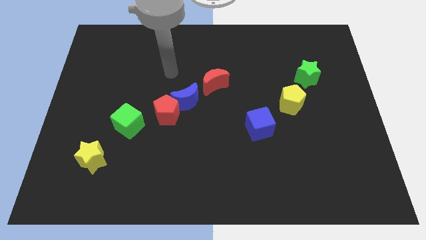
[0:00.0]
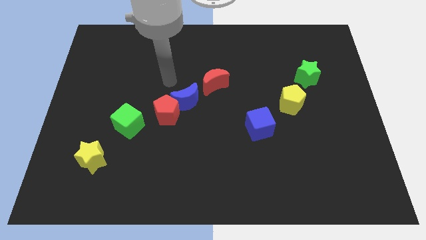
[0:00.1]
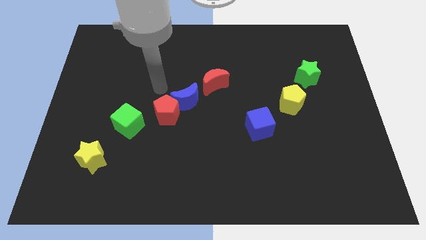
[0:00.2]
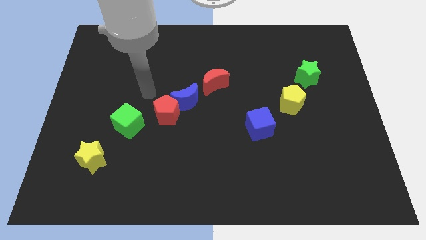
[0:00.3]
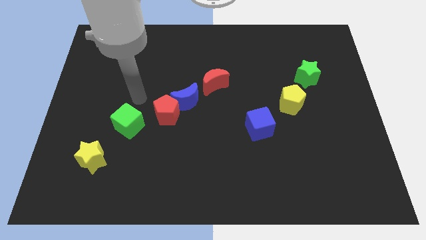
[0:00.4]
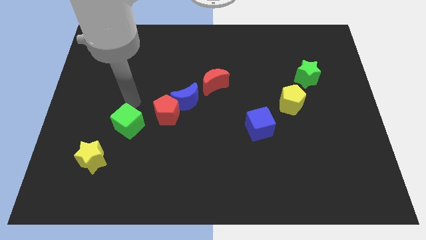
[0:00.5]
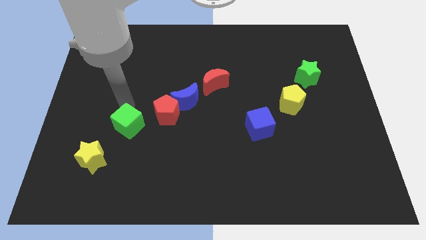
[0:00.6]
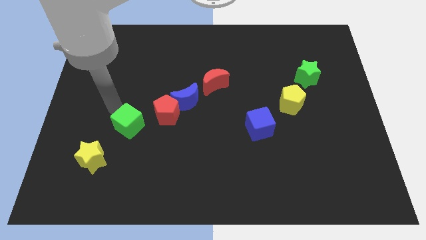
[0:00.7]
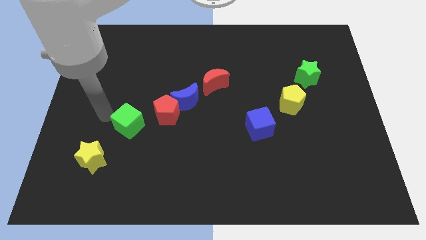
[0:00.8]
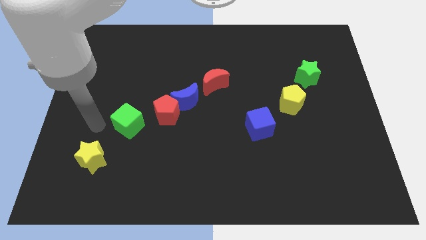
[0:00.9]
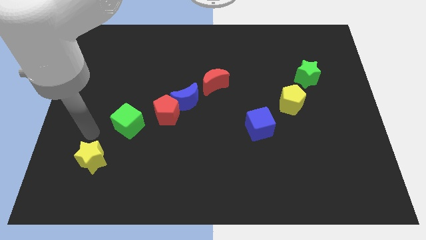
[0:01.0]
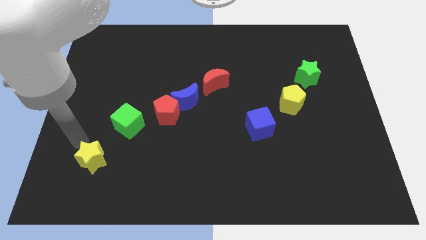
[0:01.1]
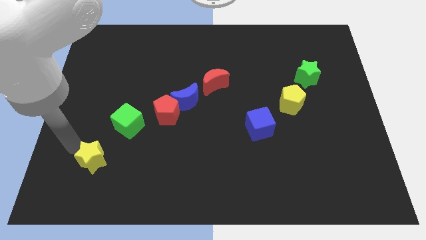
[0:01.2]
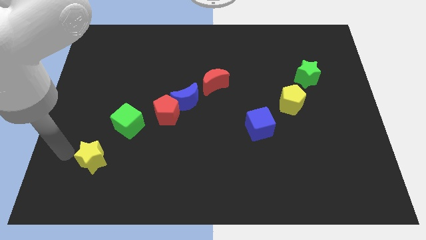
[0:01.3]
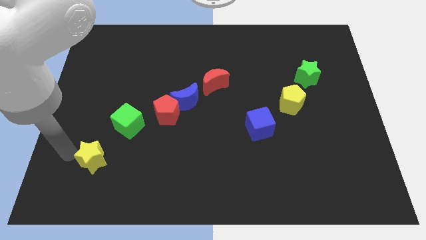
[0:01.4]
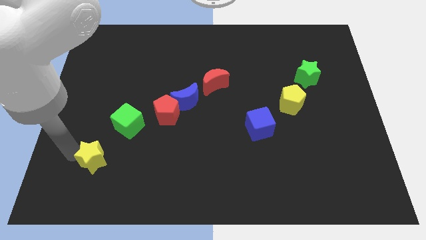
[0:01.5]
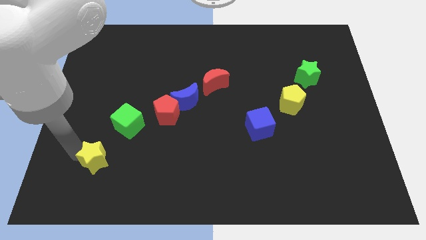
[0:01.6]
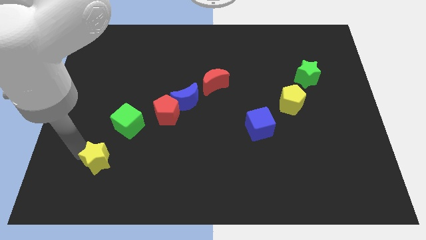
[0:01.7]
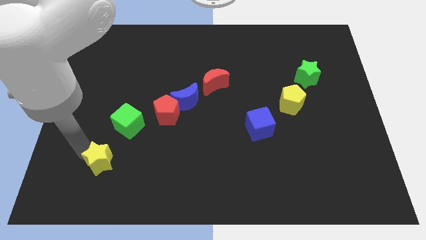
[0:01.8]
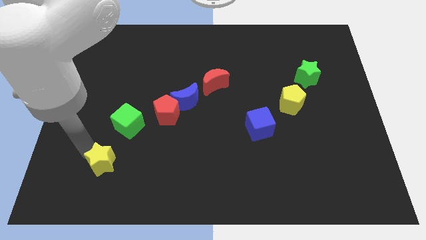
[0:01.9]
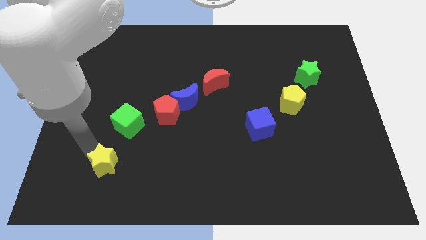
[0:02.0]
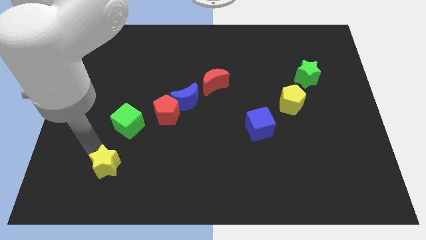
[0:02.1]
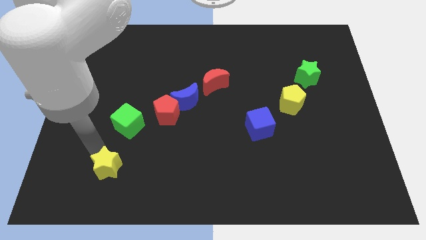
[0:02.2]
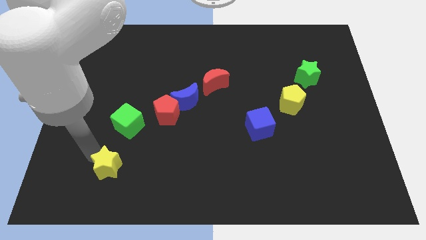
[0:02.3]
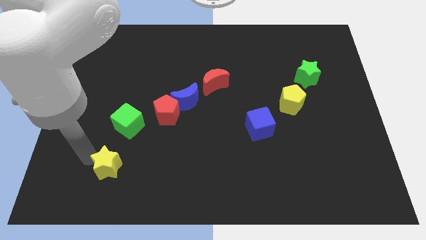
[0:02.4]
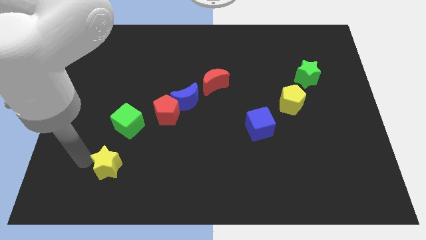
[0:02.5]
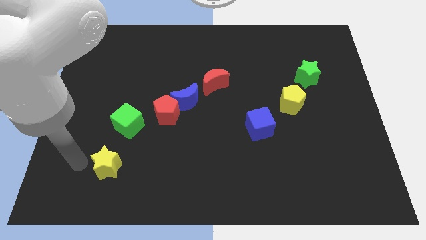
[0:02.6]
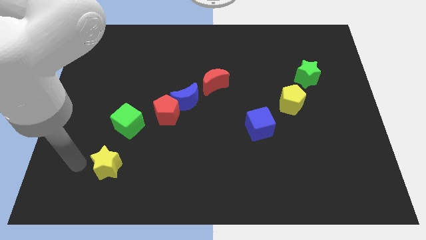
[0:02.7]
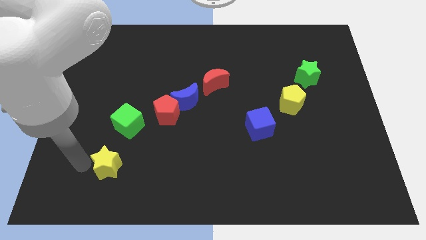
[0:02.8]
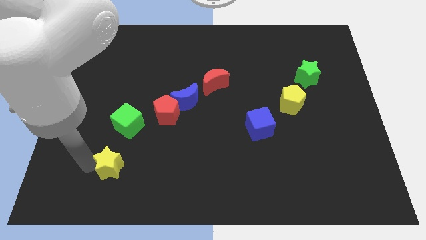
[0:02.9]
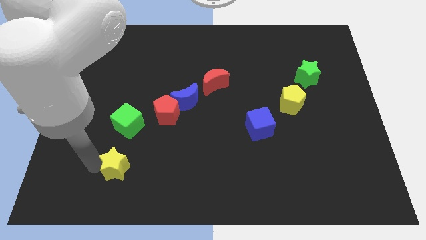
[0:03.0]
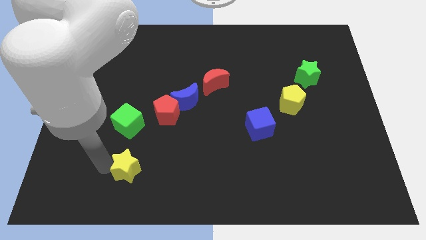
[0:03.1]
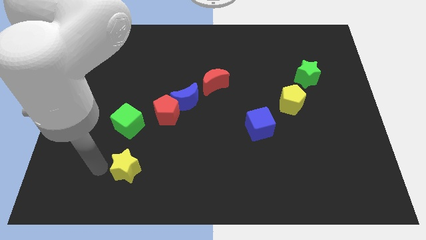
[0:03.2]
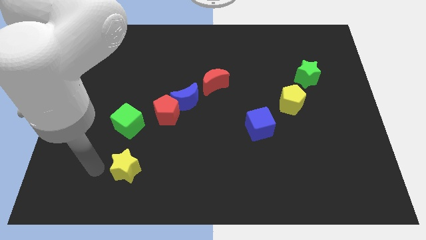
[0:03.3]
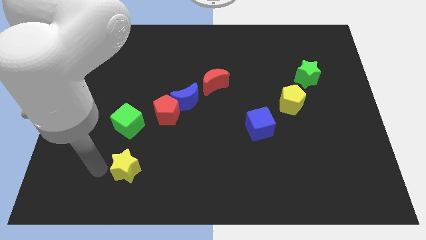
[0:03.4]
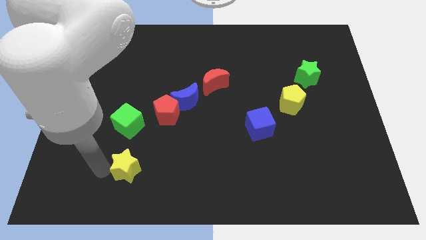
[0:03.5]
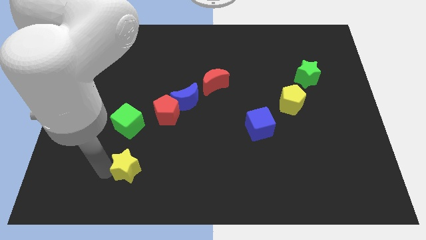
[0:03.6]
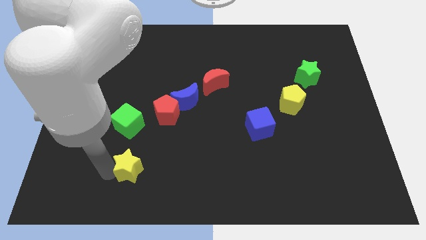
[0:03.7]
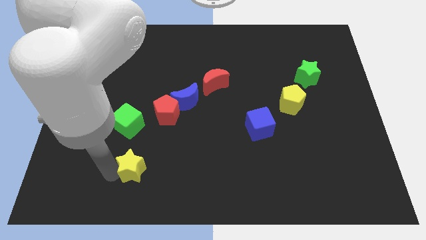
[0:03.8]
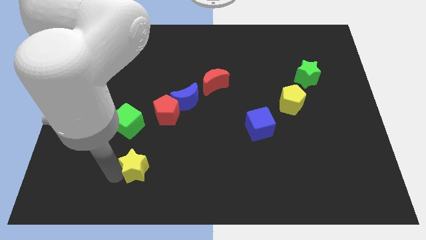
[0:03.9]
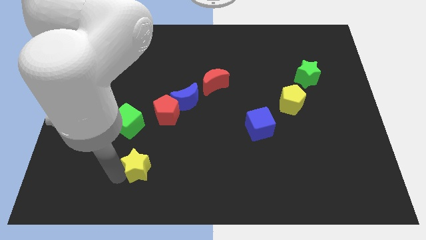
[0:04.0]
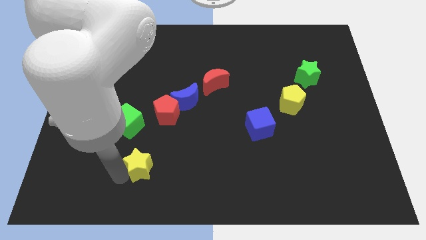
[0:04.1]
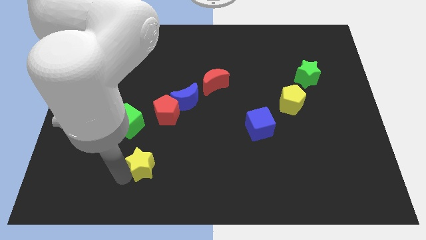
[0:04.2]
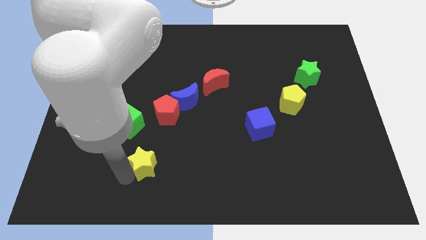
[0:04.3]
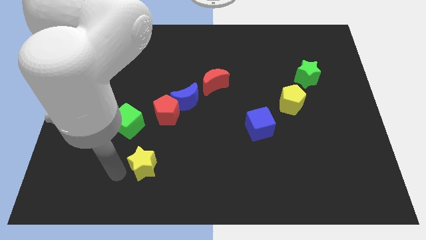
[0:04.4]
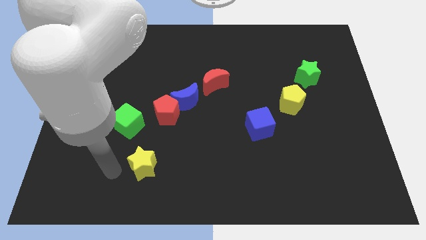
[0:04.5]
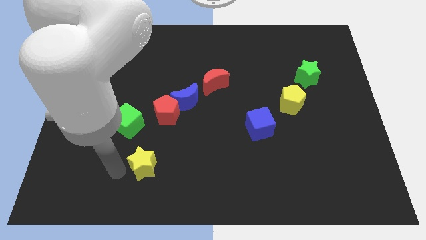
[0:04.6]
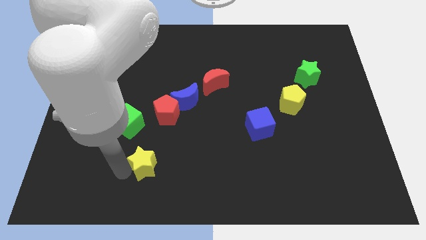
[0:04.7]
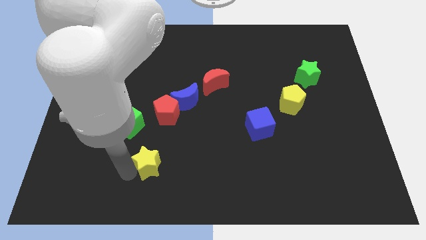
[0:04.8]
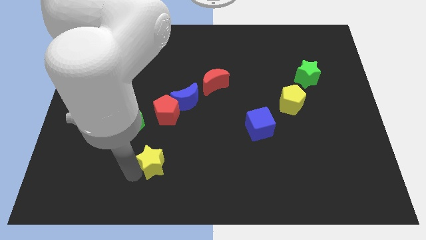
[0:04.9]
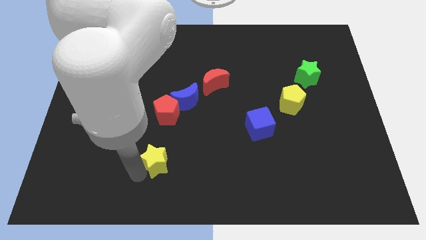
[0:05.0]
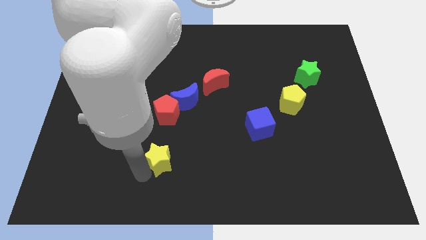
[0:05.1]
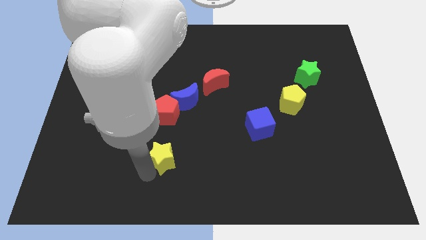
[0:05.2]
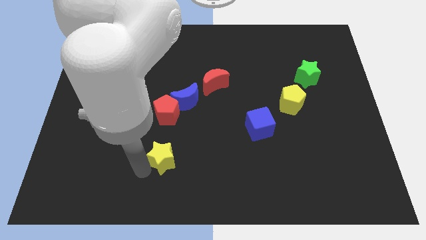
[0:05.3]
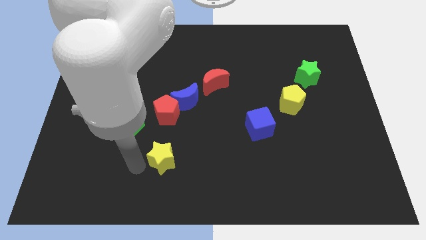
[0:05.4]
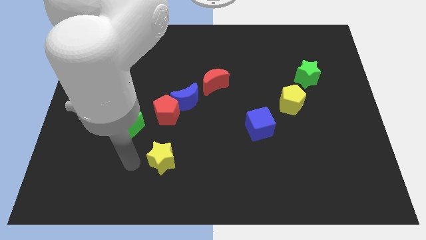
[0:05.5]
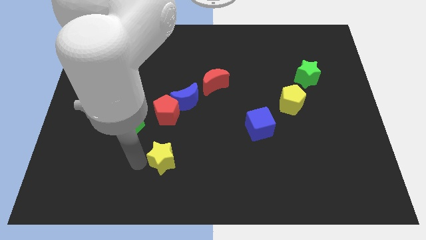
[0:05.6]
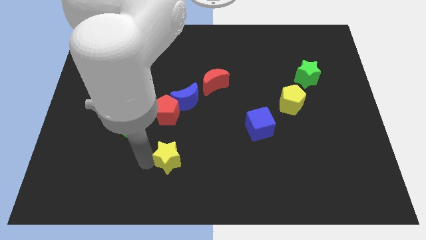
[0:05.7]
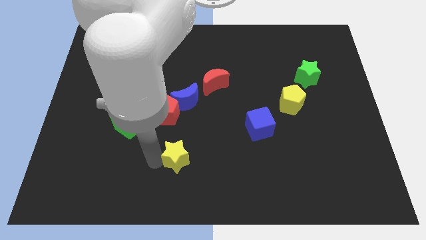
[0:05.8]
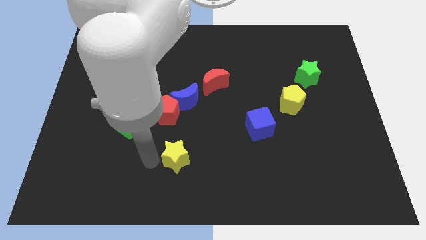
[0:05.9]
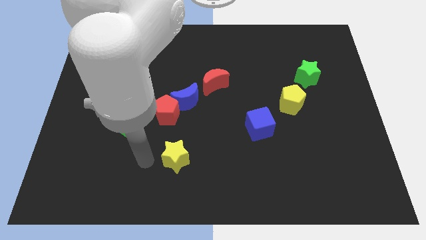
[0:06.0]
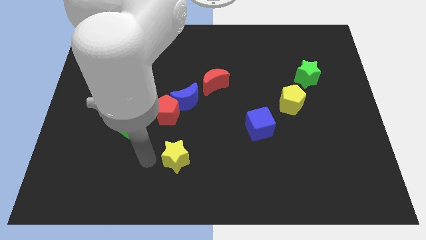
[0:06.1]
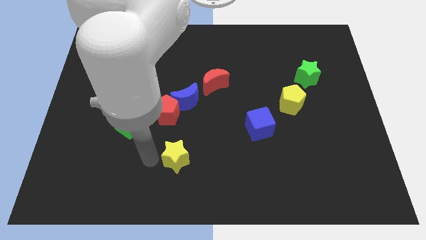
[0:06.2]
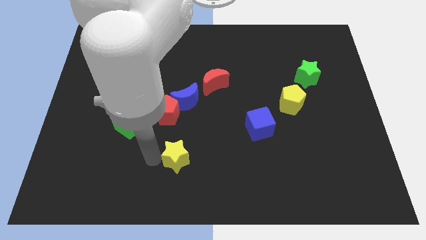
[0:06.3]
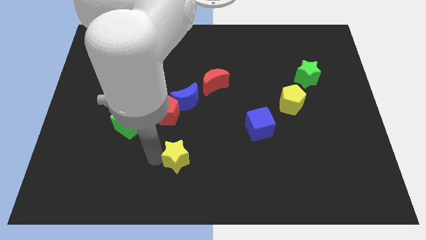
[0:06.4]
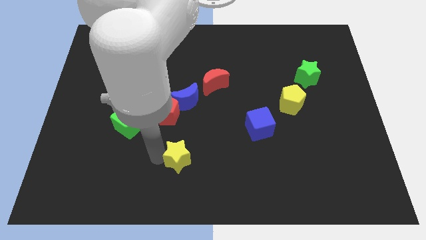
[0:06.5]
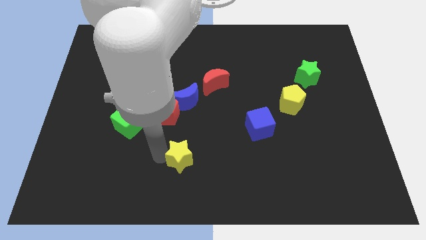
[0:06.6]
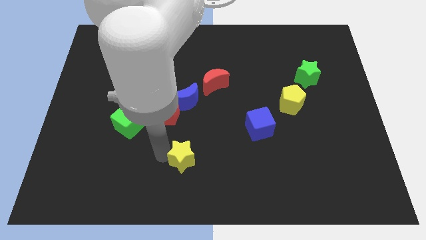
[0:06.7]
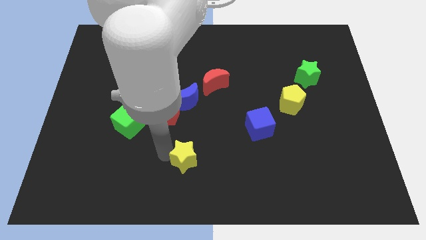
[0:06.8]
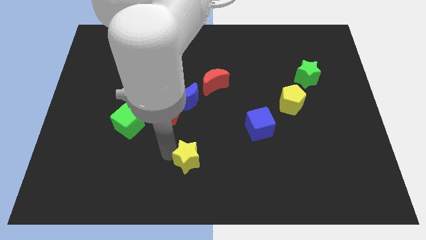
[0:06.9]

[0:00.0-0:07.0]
slide the yellow star to the right

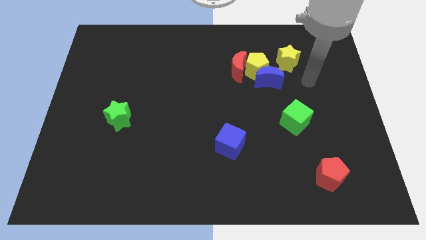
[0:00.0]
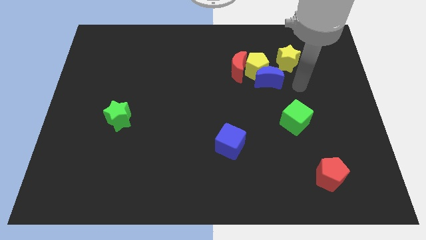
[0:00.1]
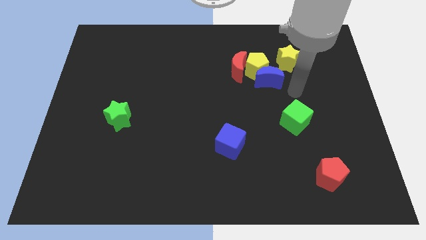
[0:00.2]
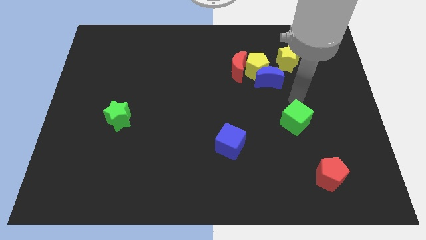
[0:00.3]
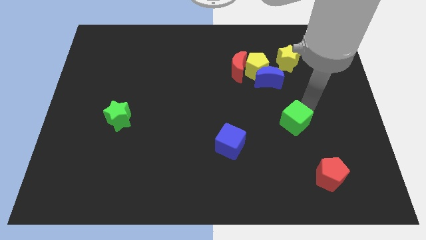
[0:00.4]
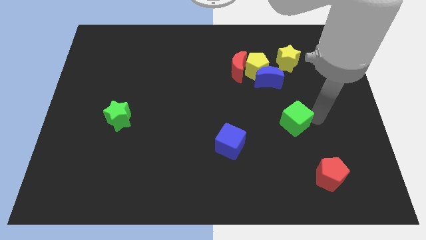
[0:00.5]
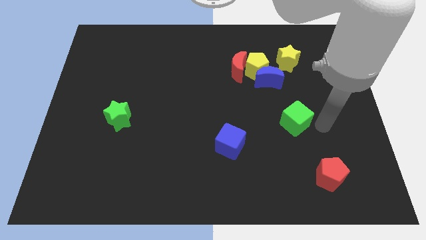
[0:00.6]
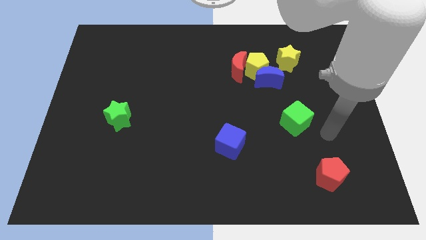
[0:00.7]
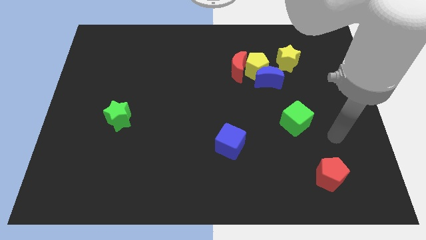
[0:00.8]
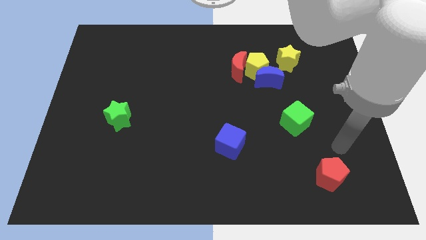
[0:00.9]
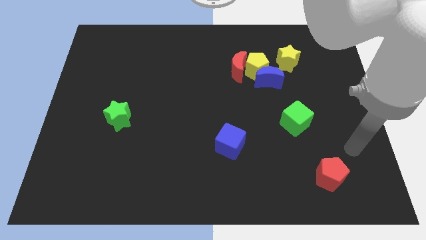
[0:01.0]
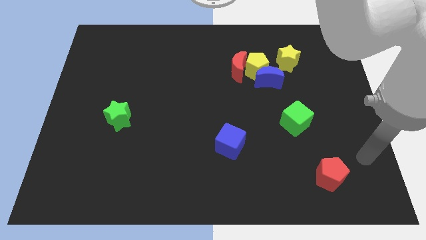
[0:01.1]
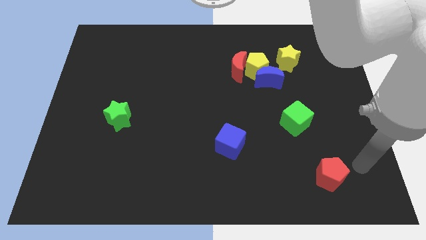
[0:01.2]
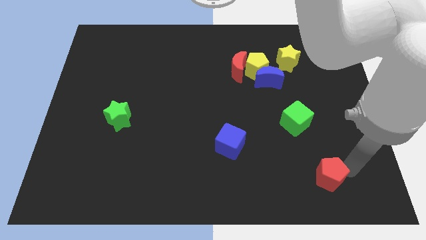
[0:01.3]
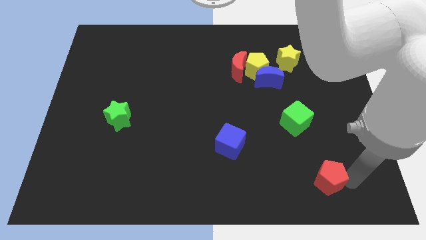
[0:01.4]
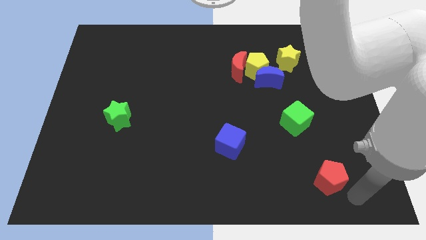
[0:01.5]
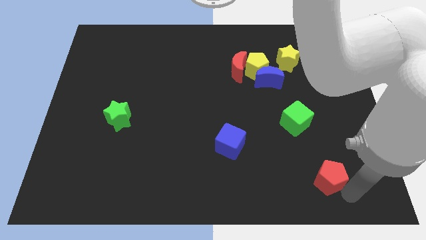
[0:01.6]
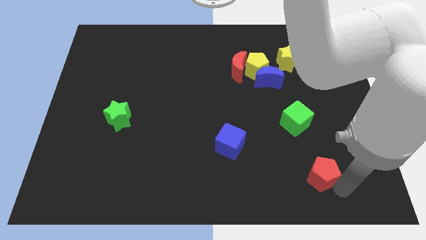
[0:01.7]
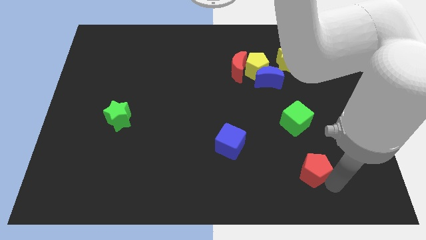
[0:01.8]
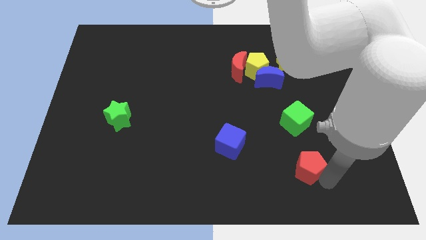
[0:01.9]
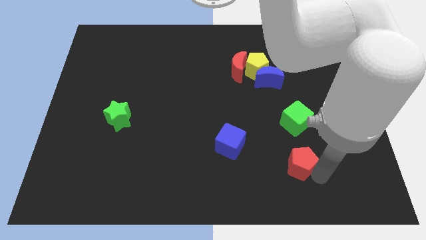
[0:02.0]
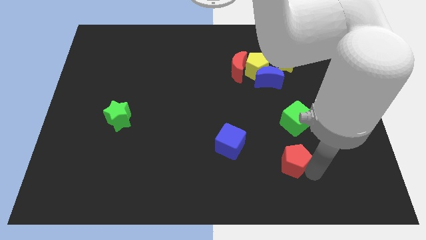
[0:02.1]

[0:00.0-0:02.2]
push the red pentagon up and left a little
